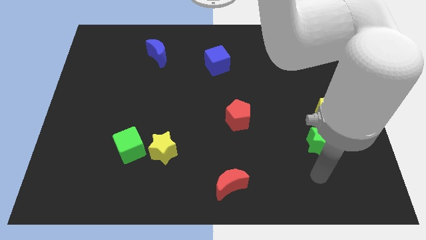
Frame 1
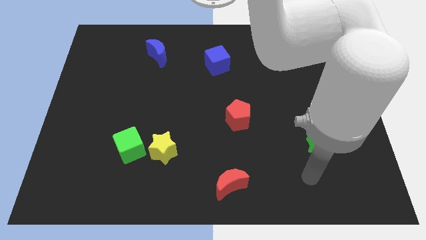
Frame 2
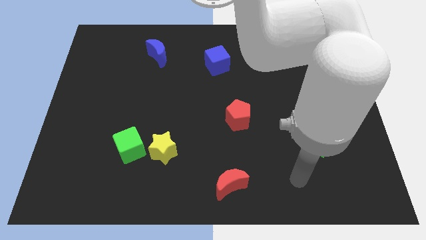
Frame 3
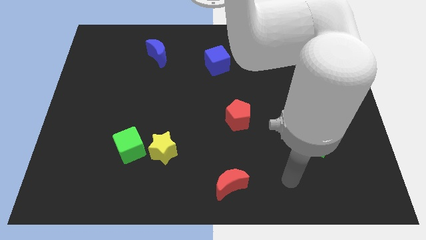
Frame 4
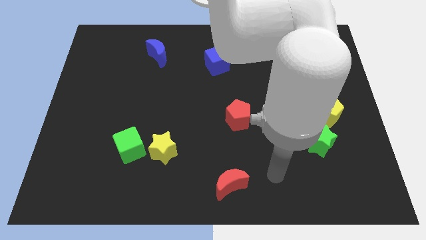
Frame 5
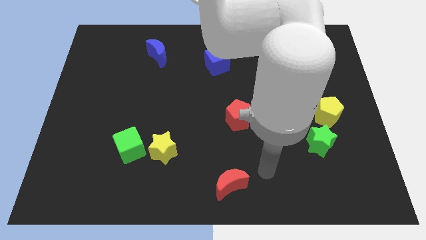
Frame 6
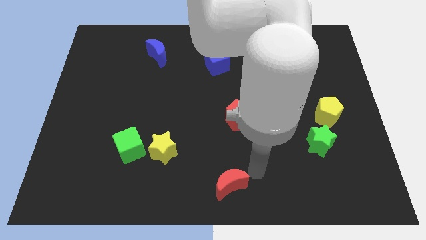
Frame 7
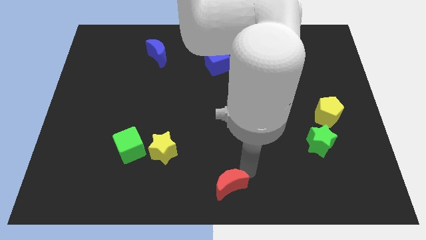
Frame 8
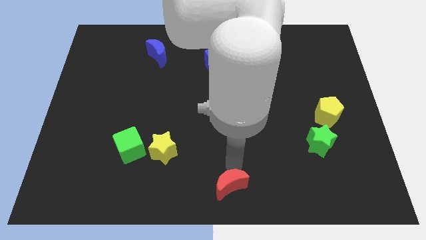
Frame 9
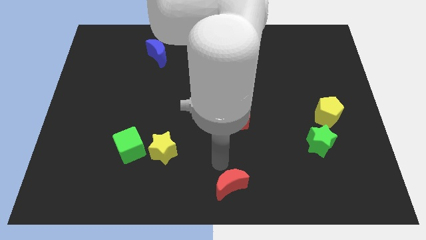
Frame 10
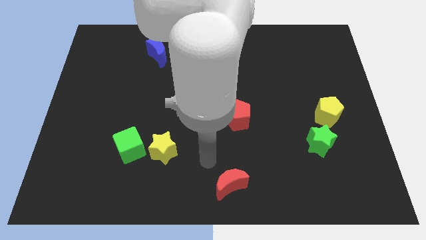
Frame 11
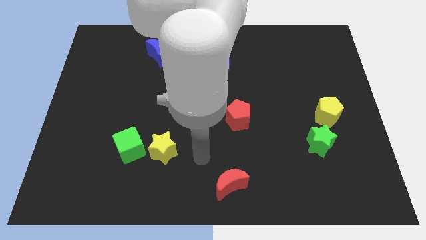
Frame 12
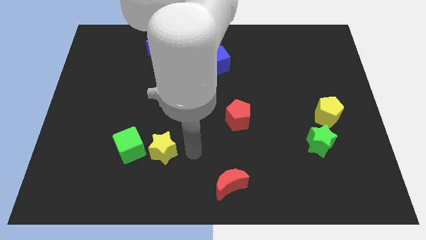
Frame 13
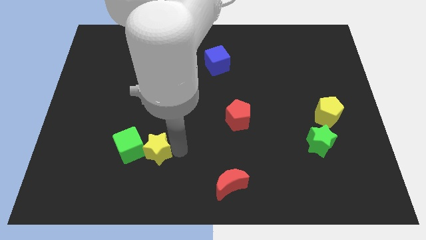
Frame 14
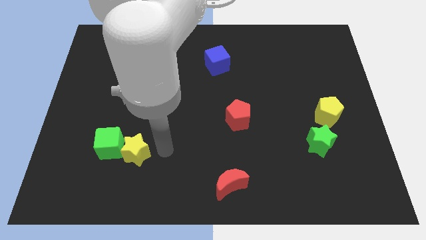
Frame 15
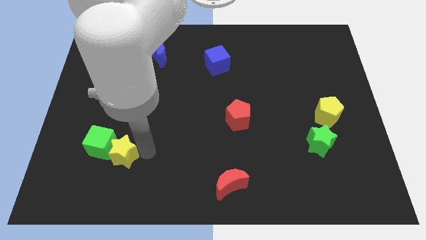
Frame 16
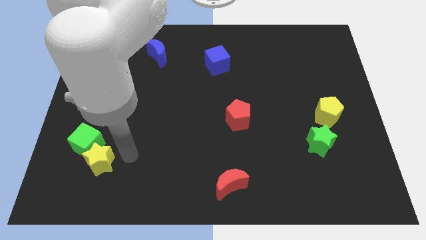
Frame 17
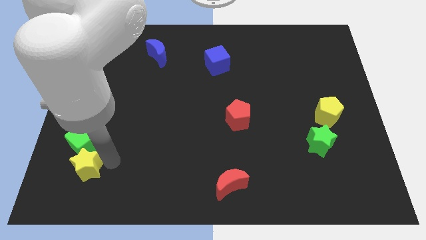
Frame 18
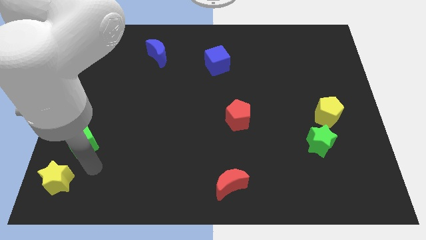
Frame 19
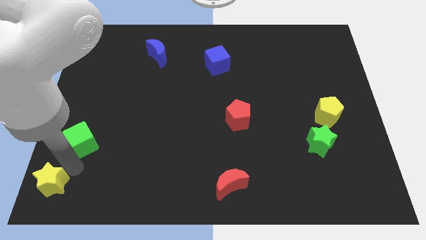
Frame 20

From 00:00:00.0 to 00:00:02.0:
separate the green cube from the yellow star

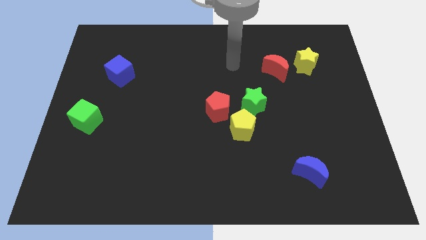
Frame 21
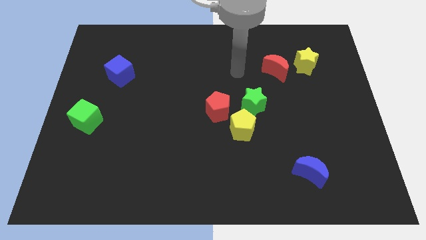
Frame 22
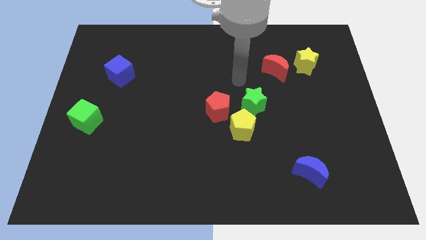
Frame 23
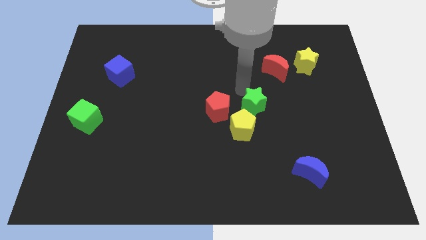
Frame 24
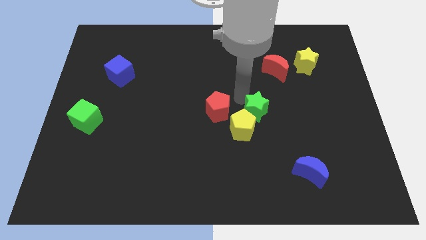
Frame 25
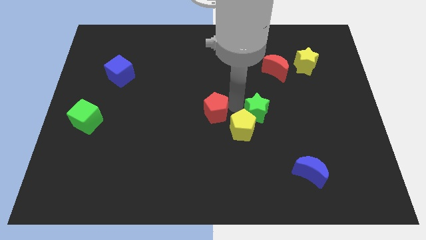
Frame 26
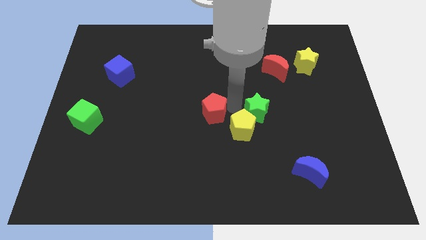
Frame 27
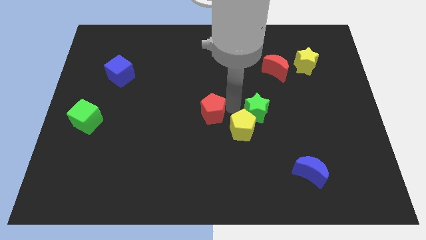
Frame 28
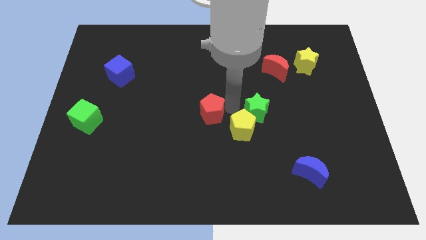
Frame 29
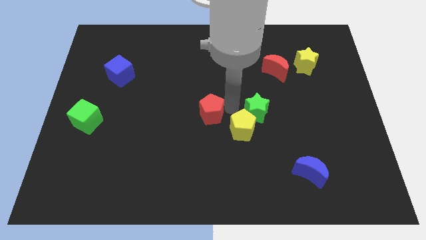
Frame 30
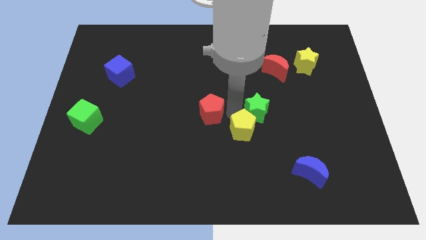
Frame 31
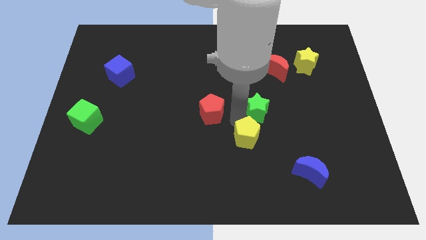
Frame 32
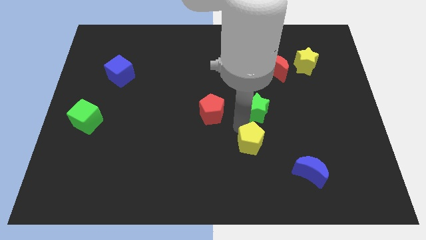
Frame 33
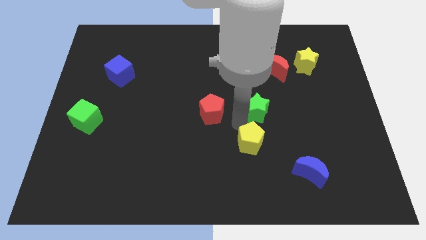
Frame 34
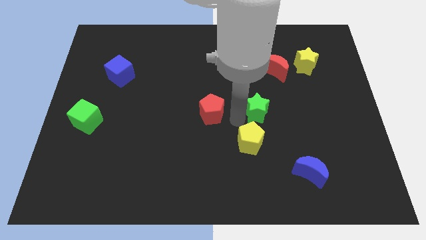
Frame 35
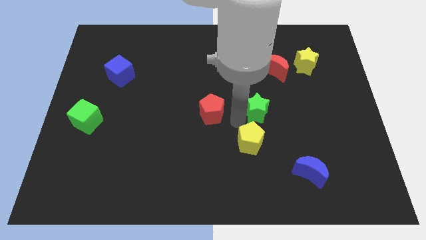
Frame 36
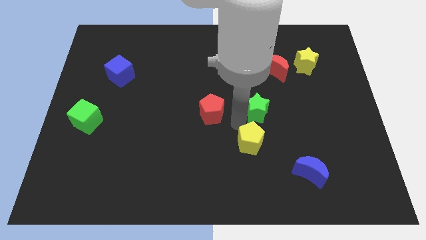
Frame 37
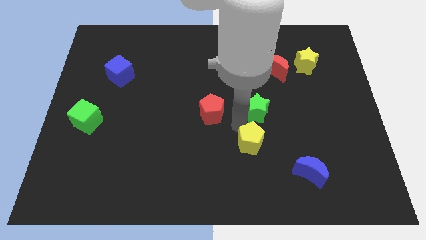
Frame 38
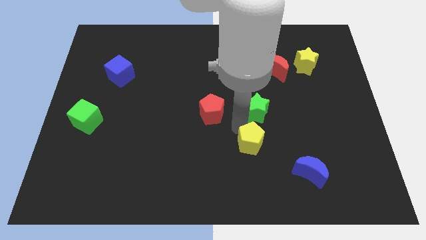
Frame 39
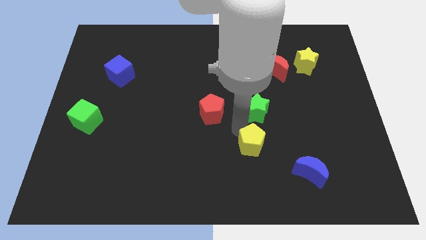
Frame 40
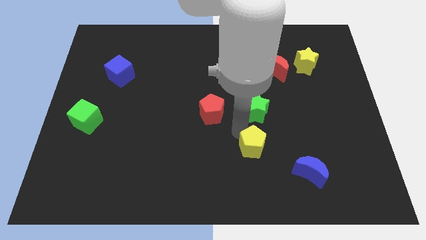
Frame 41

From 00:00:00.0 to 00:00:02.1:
pull the yellow pentagon apart from the red pentagon and green star

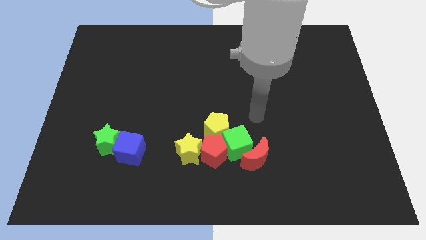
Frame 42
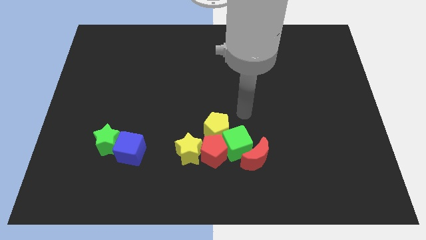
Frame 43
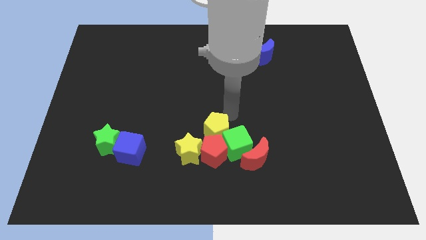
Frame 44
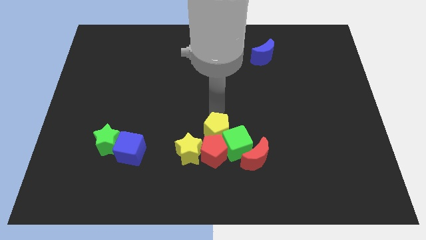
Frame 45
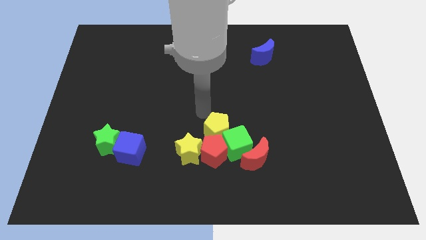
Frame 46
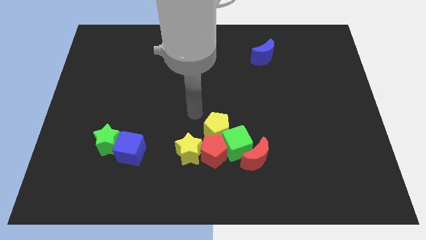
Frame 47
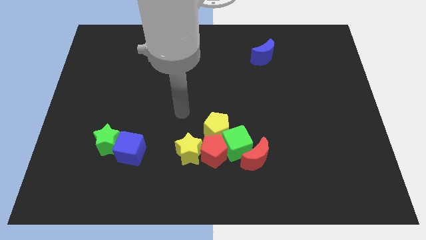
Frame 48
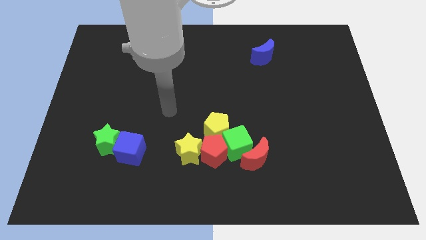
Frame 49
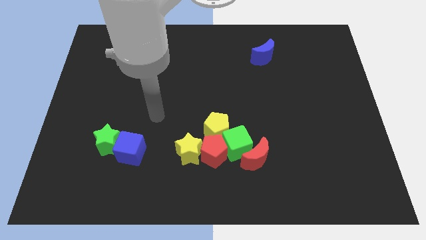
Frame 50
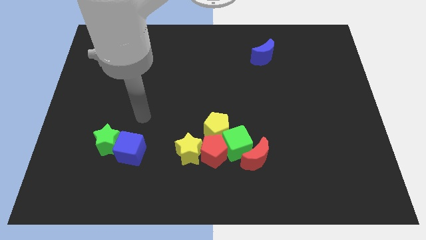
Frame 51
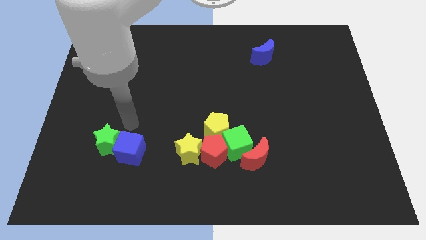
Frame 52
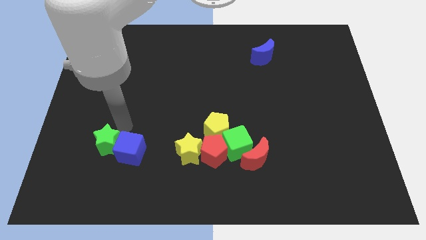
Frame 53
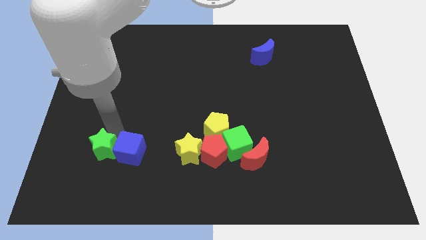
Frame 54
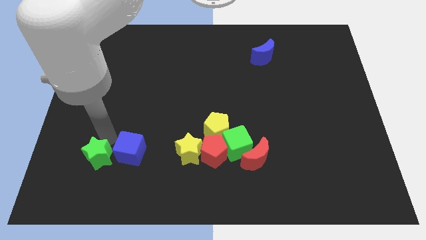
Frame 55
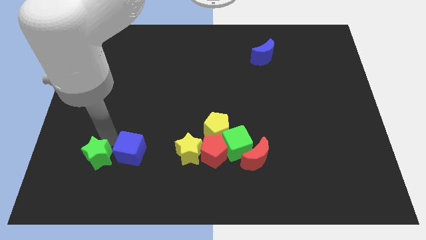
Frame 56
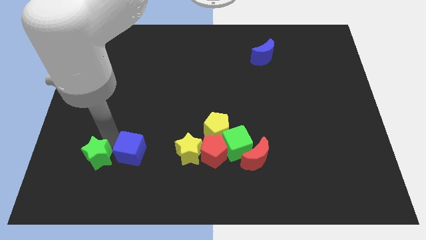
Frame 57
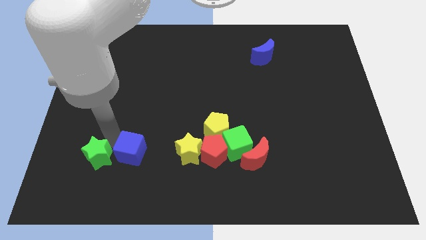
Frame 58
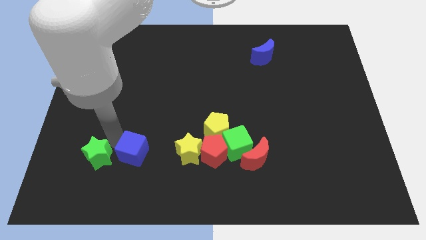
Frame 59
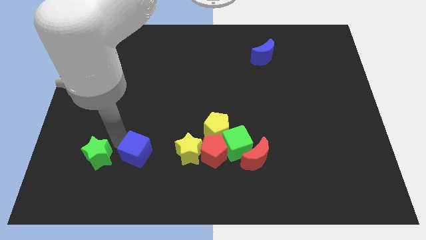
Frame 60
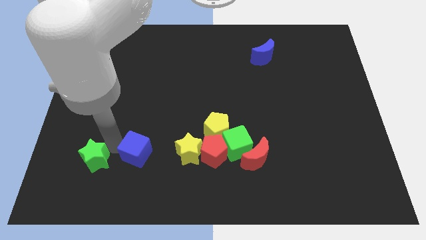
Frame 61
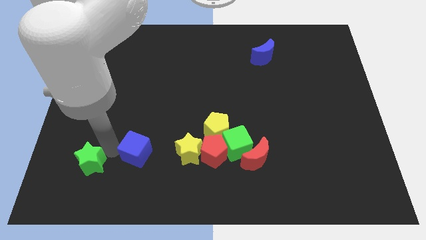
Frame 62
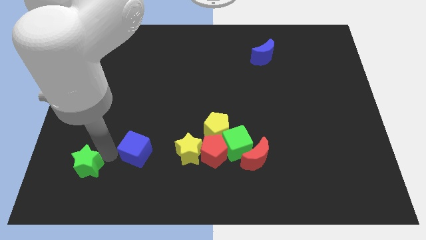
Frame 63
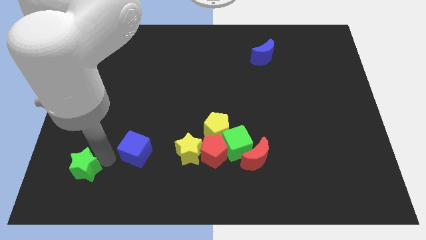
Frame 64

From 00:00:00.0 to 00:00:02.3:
pull the blue cube apart from the green star

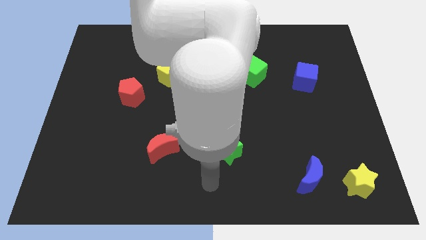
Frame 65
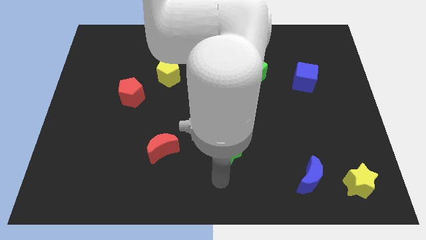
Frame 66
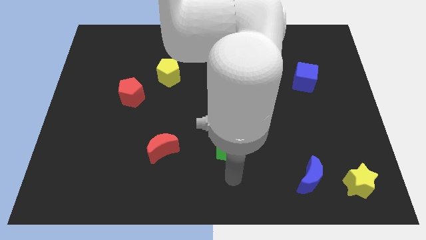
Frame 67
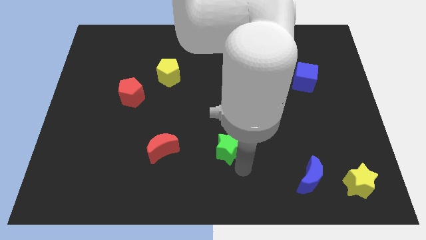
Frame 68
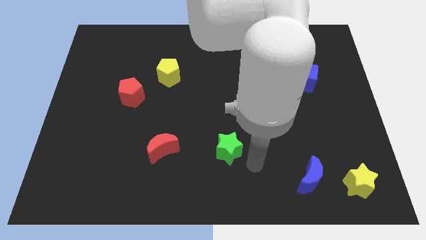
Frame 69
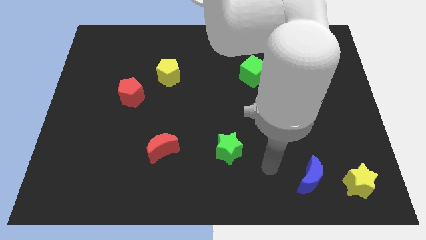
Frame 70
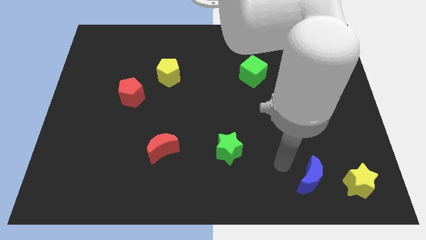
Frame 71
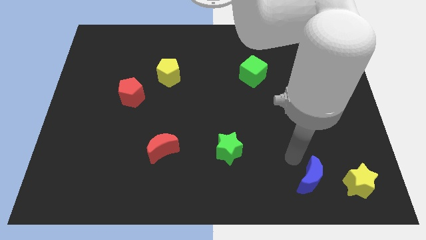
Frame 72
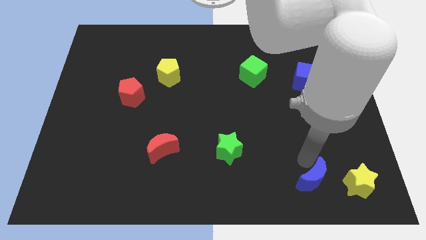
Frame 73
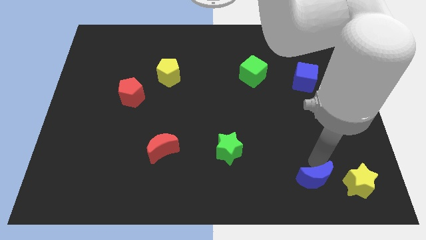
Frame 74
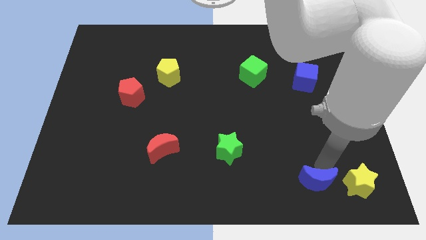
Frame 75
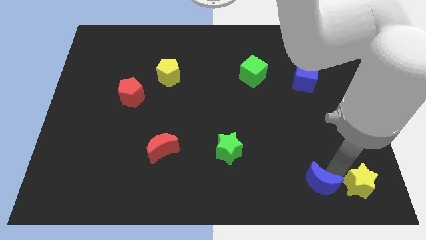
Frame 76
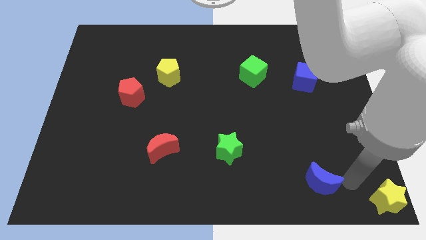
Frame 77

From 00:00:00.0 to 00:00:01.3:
pull the blue moon apart from the yellow star

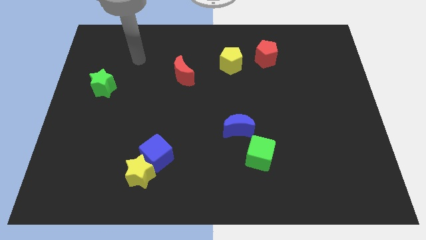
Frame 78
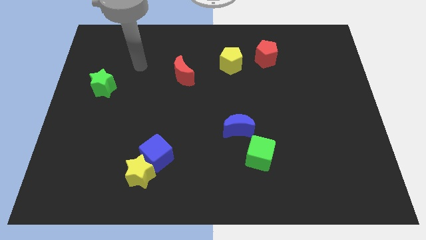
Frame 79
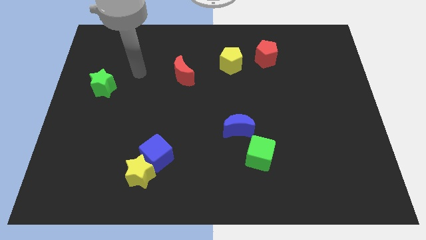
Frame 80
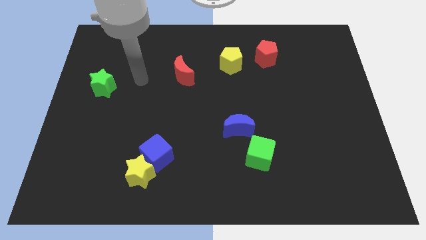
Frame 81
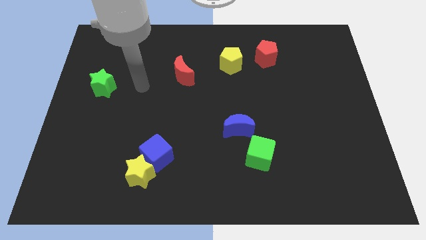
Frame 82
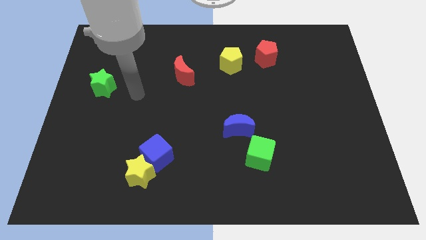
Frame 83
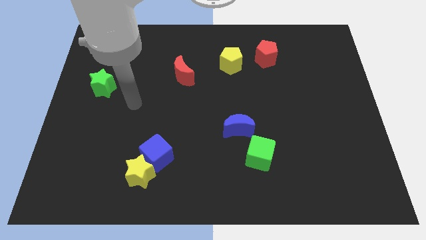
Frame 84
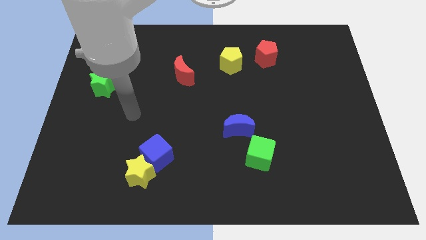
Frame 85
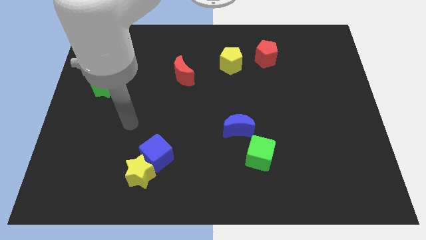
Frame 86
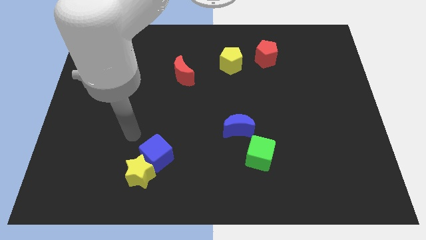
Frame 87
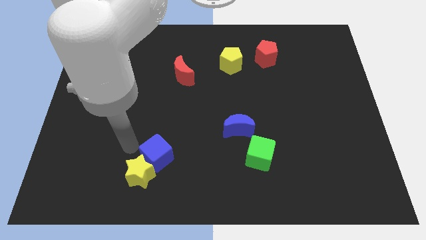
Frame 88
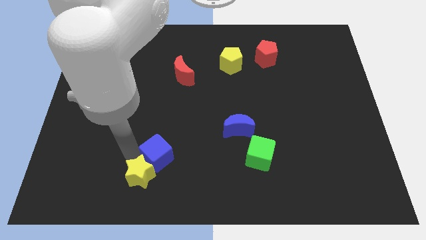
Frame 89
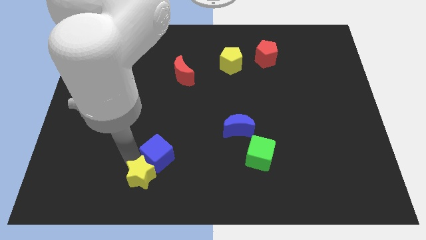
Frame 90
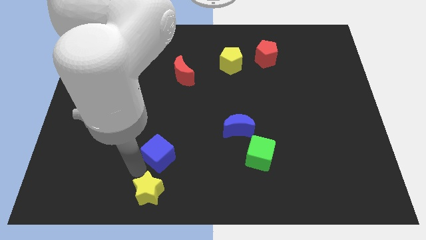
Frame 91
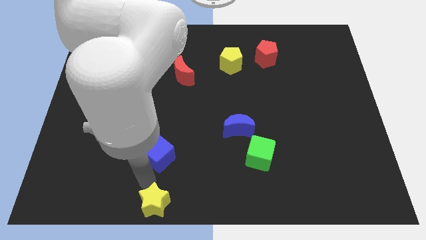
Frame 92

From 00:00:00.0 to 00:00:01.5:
separate the blue cube from the yellow star

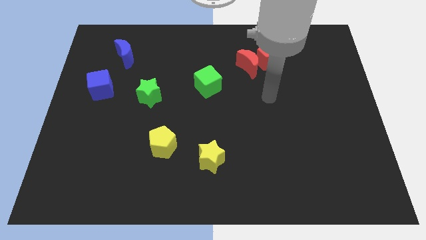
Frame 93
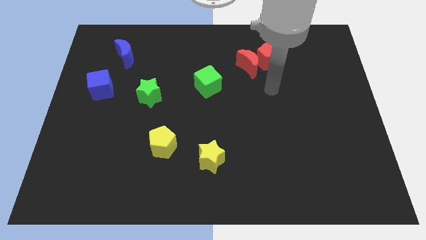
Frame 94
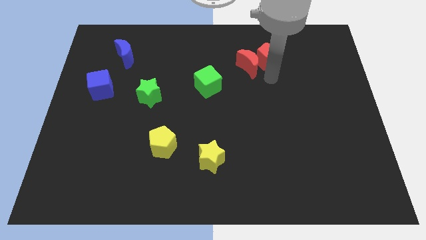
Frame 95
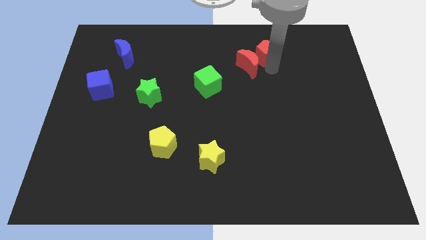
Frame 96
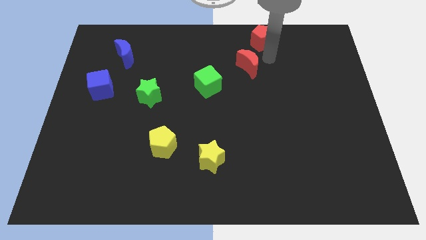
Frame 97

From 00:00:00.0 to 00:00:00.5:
separate the red moon from the red pentagon
